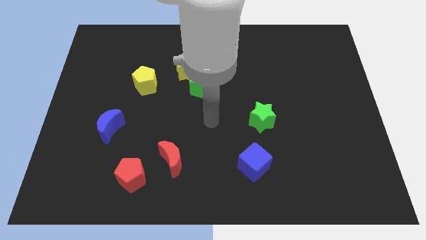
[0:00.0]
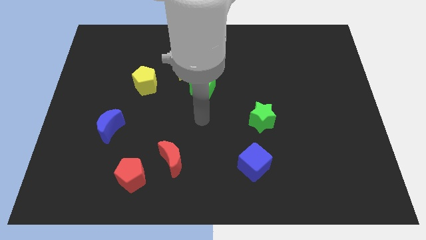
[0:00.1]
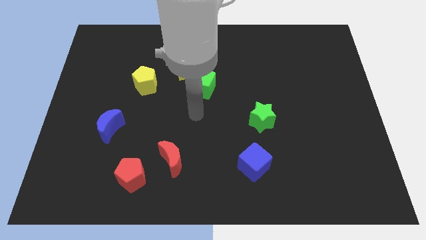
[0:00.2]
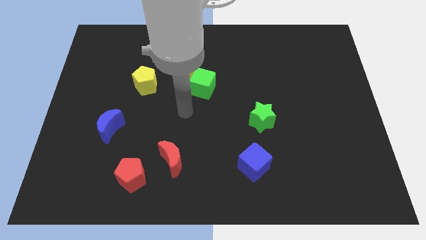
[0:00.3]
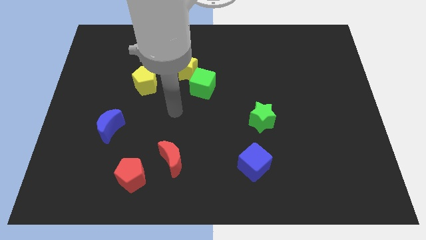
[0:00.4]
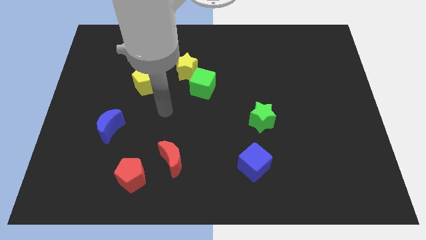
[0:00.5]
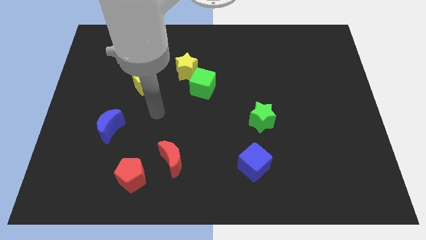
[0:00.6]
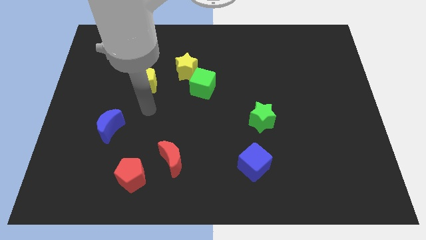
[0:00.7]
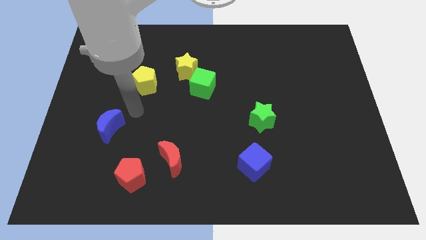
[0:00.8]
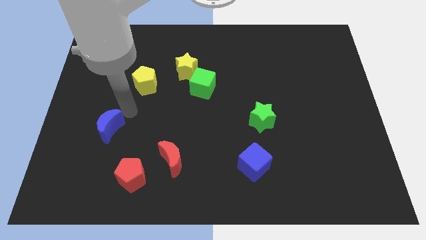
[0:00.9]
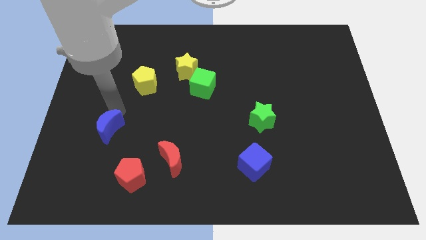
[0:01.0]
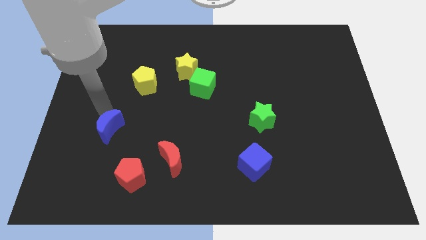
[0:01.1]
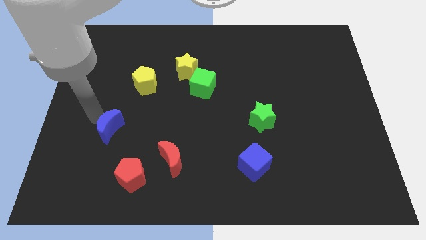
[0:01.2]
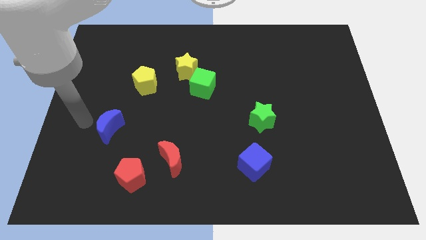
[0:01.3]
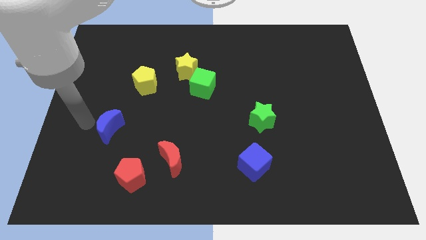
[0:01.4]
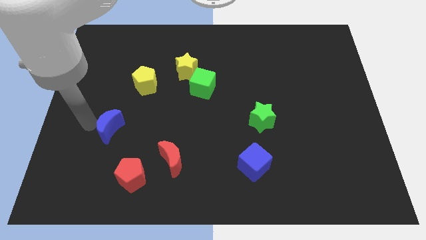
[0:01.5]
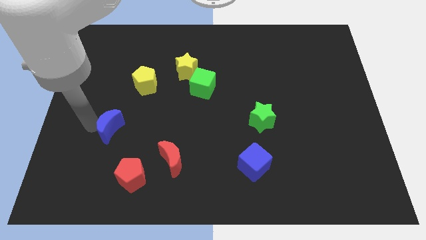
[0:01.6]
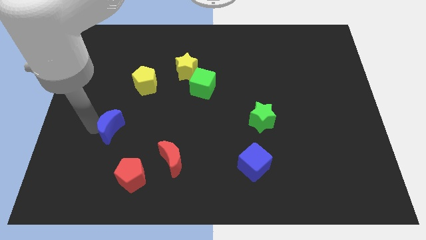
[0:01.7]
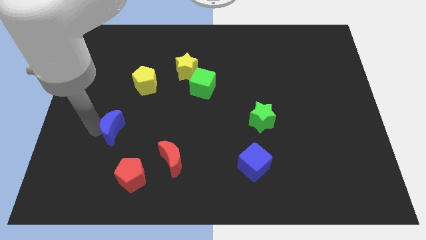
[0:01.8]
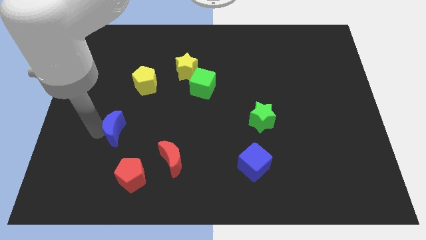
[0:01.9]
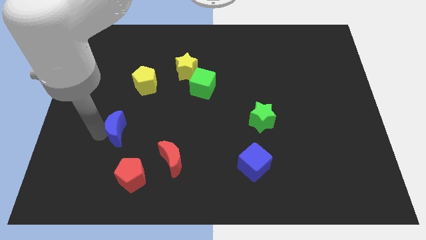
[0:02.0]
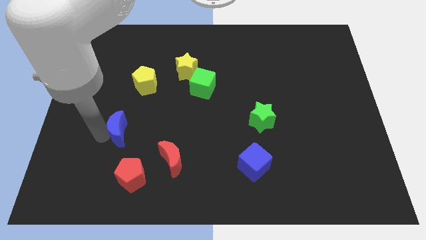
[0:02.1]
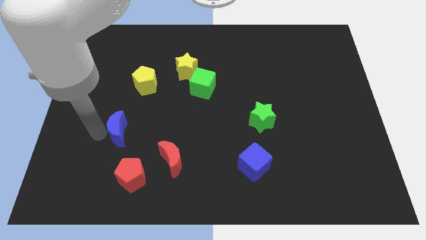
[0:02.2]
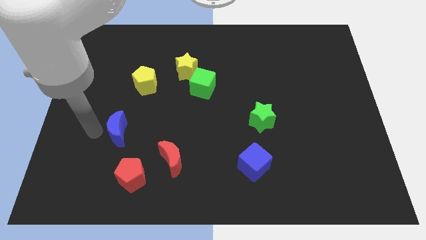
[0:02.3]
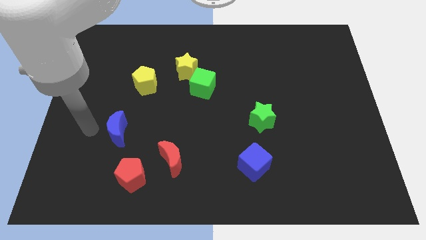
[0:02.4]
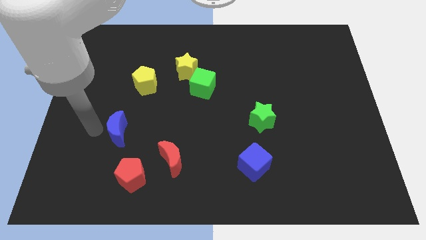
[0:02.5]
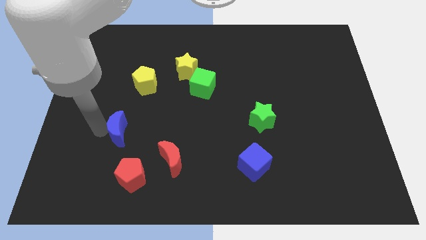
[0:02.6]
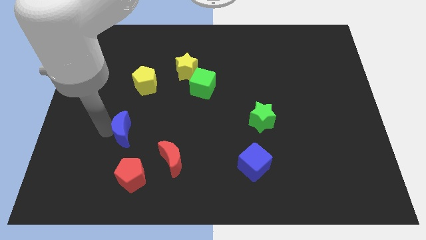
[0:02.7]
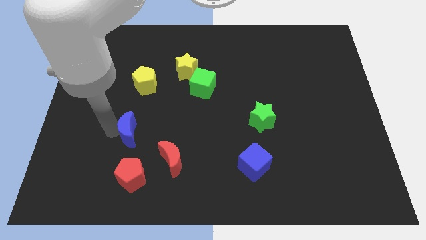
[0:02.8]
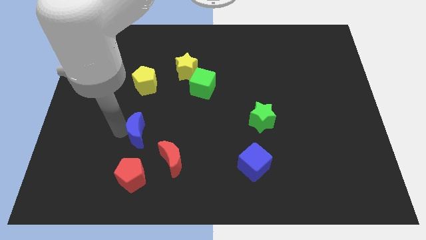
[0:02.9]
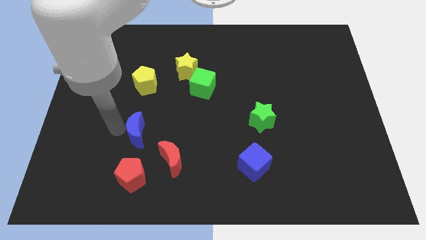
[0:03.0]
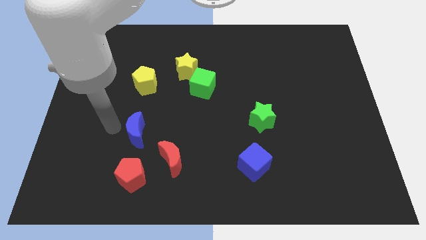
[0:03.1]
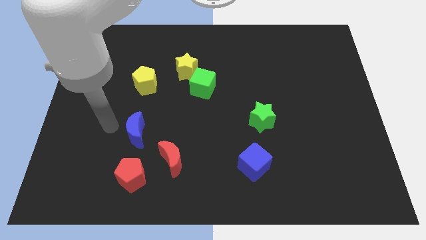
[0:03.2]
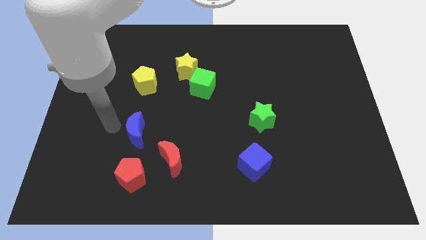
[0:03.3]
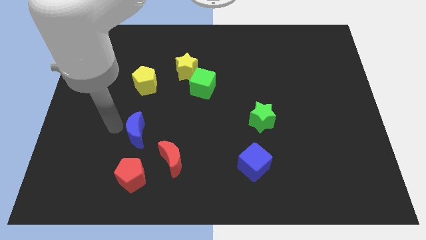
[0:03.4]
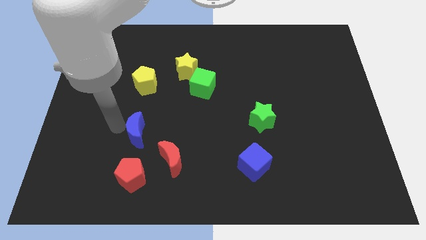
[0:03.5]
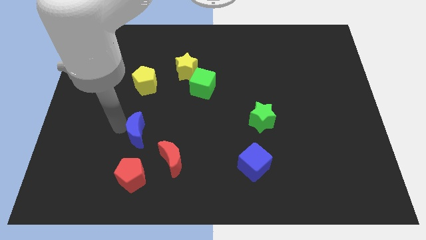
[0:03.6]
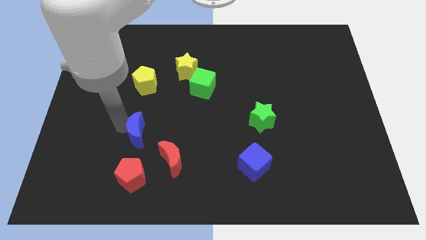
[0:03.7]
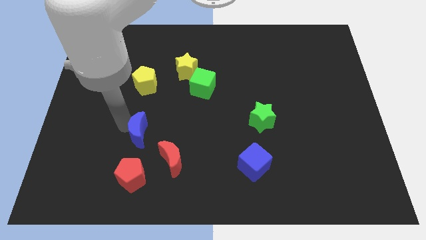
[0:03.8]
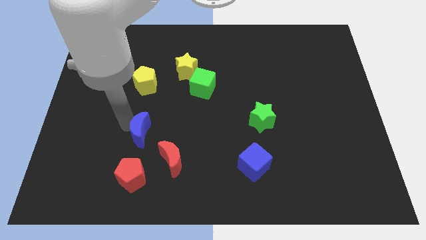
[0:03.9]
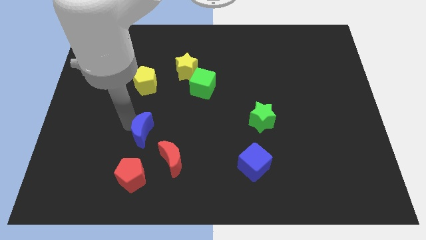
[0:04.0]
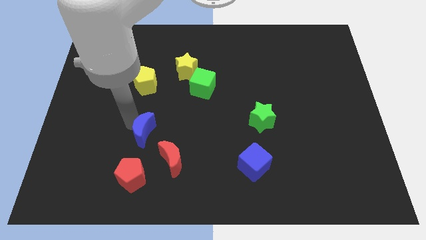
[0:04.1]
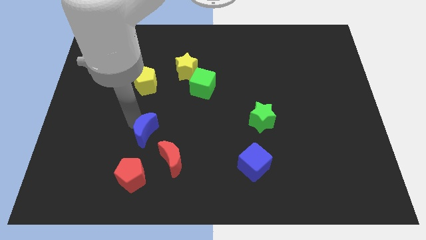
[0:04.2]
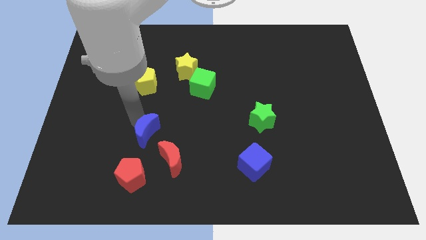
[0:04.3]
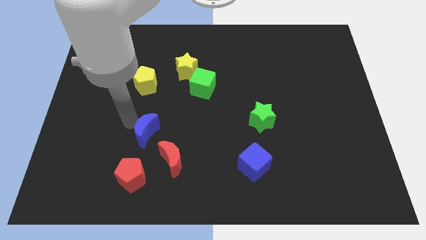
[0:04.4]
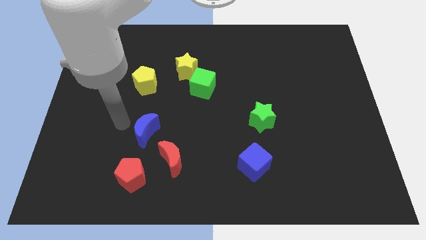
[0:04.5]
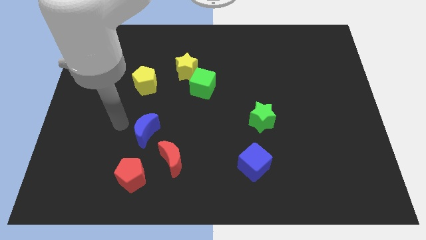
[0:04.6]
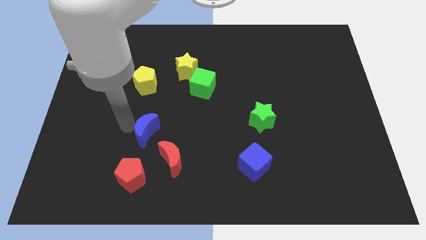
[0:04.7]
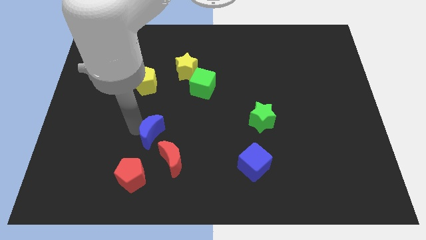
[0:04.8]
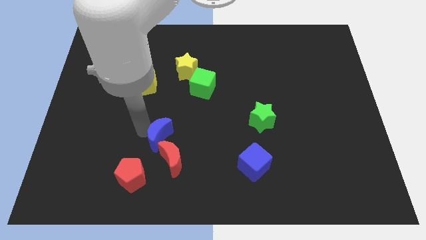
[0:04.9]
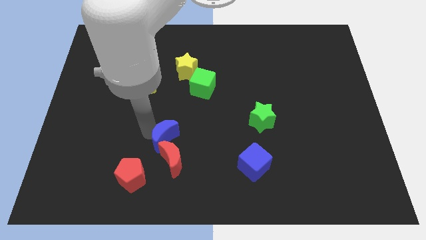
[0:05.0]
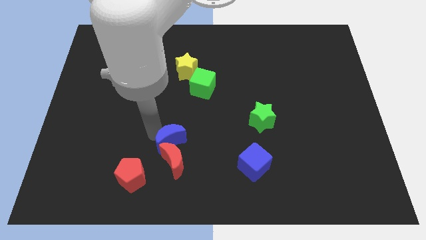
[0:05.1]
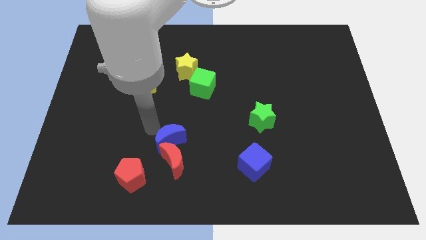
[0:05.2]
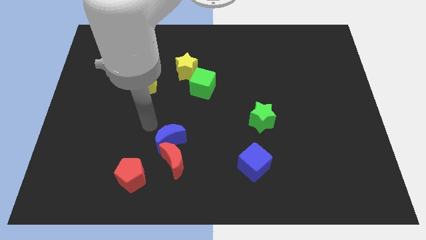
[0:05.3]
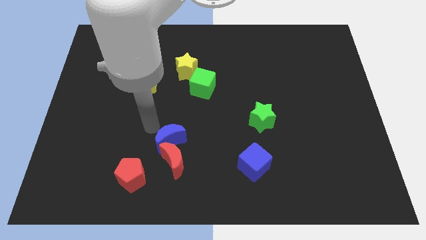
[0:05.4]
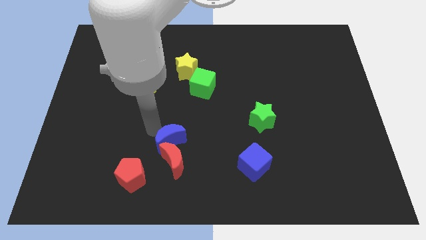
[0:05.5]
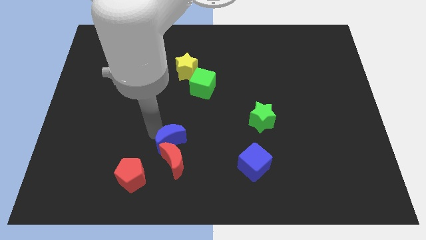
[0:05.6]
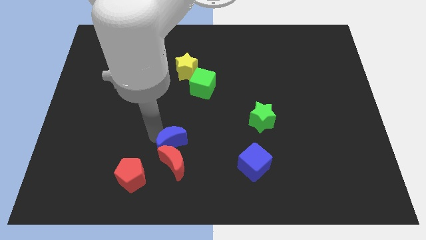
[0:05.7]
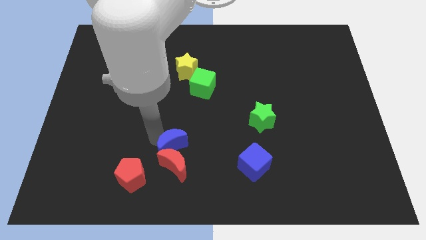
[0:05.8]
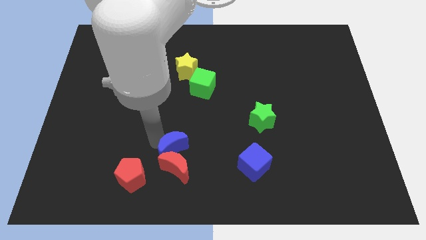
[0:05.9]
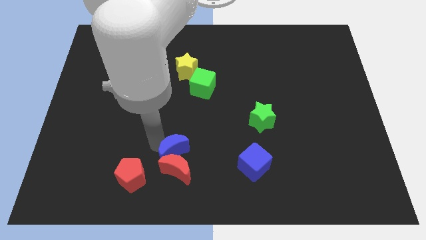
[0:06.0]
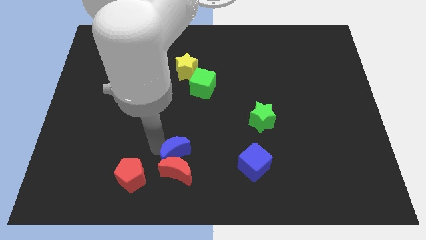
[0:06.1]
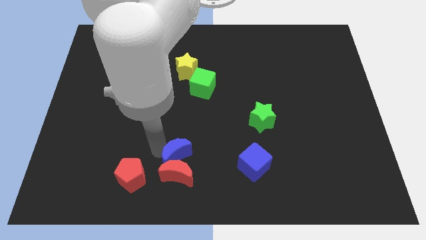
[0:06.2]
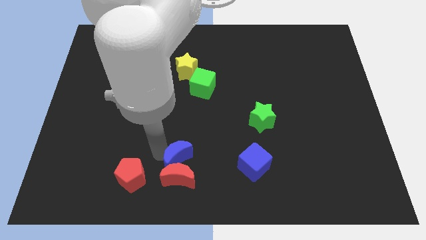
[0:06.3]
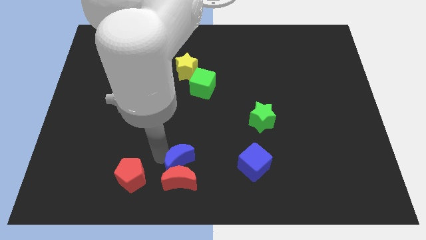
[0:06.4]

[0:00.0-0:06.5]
slide the blue moon left of the blue cube

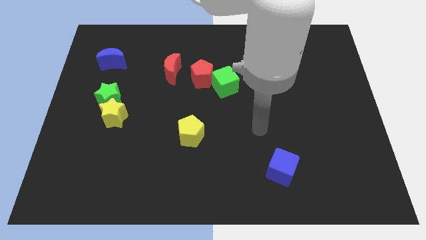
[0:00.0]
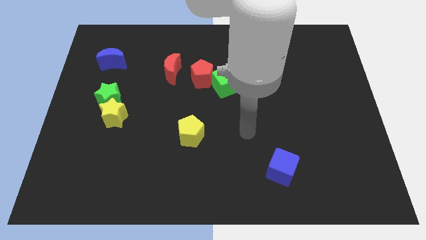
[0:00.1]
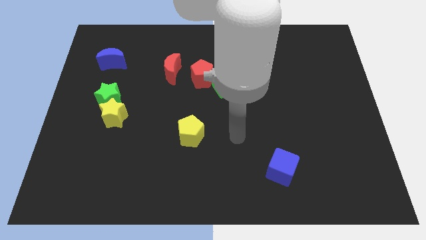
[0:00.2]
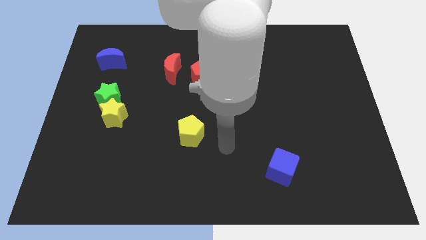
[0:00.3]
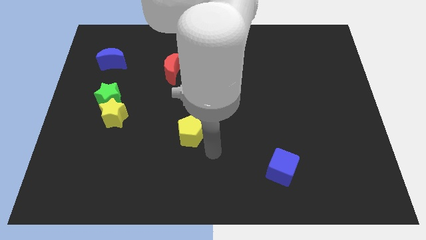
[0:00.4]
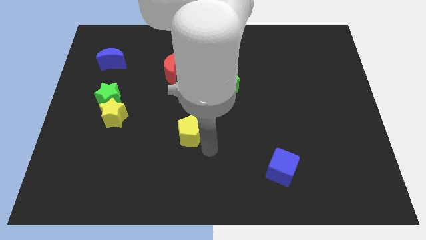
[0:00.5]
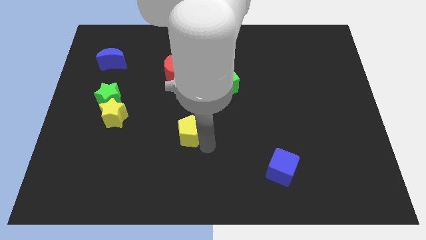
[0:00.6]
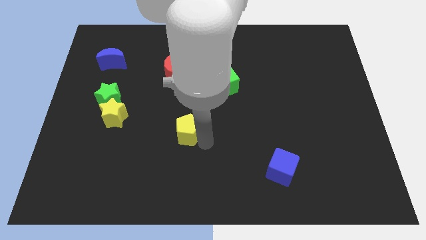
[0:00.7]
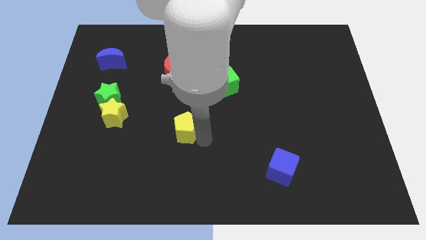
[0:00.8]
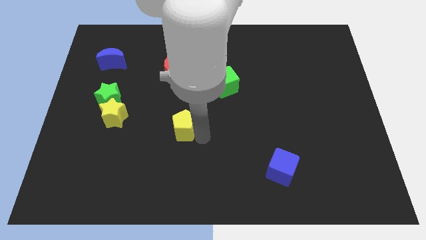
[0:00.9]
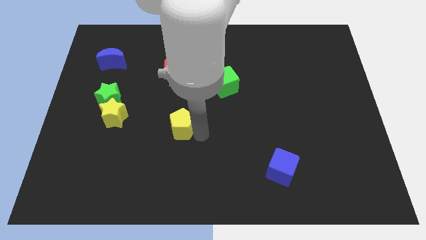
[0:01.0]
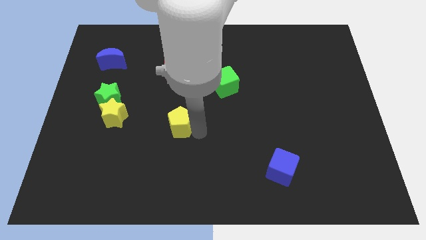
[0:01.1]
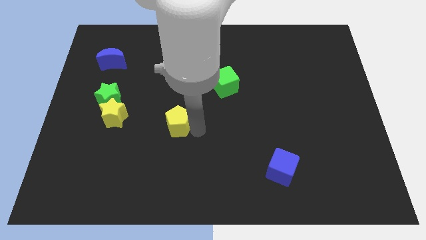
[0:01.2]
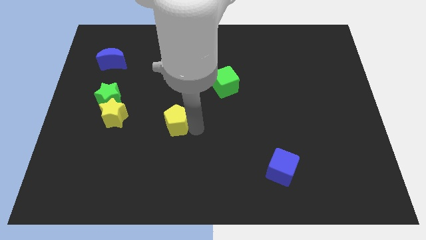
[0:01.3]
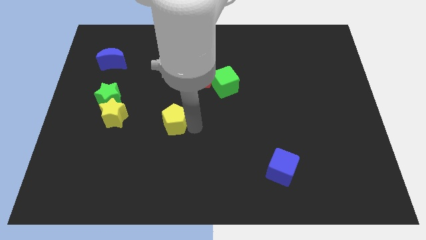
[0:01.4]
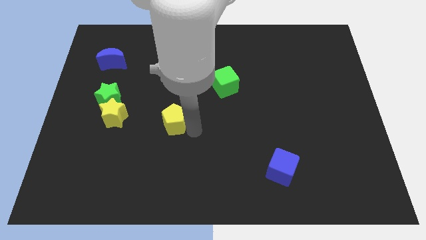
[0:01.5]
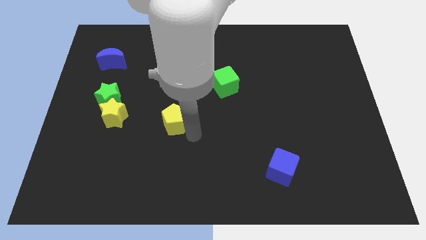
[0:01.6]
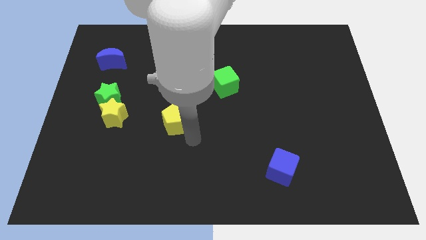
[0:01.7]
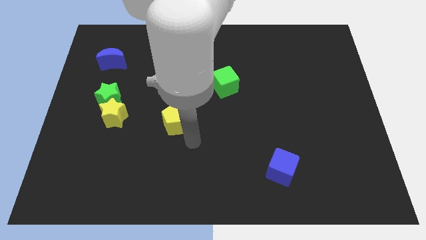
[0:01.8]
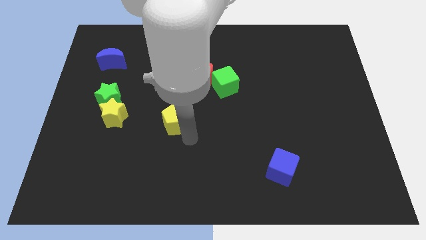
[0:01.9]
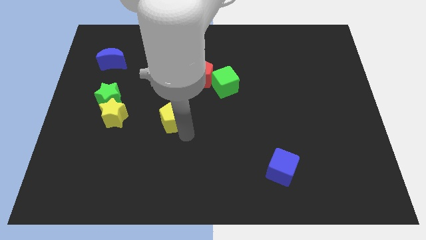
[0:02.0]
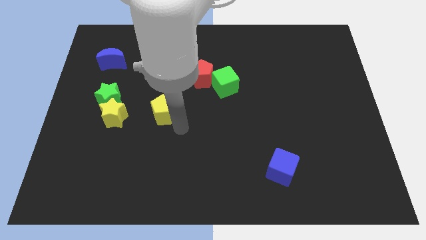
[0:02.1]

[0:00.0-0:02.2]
push the yellow pentagon to the right of the green star
